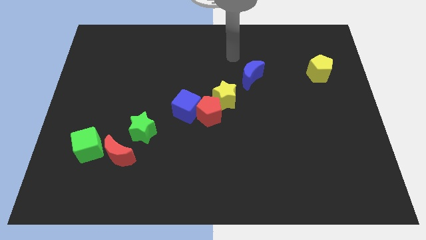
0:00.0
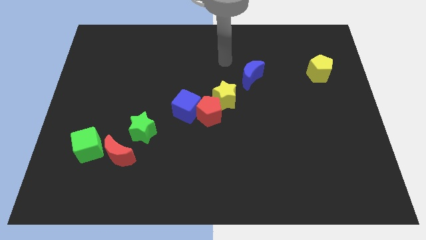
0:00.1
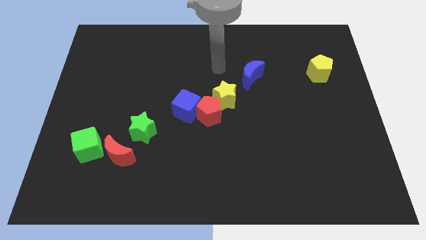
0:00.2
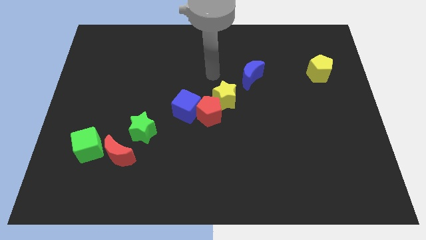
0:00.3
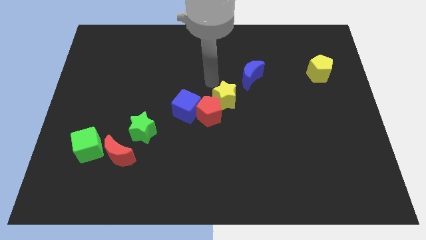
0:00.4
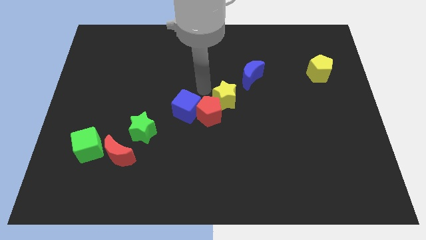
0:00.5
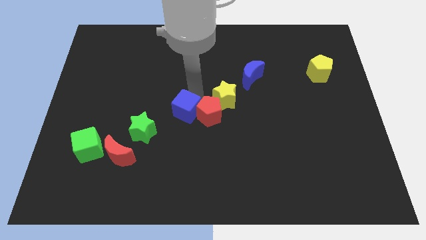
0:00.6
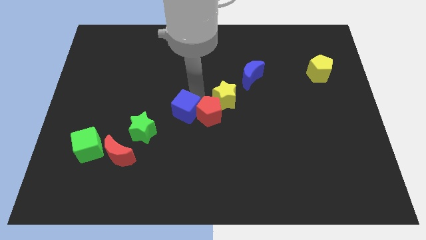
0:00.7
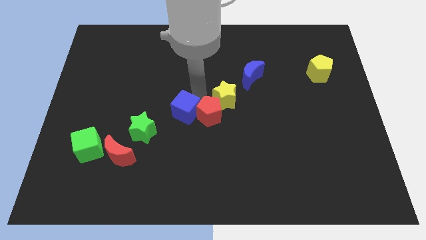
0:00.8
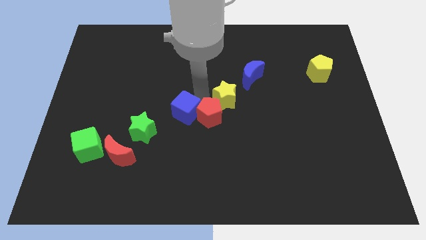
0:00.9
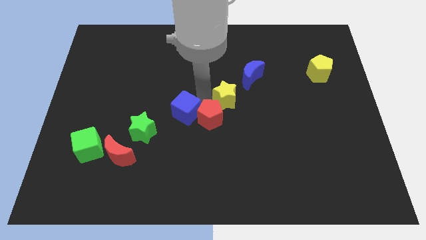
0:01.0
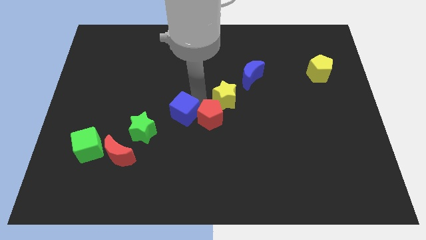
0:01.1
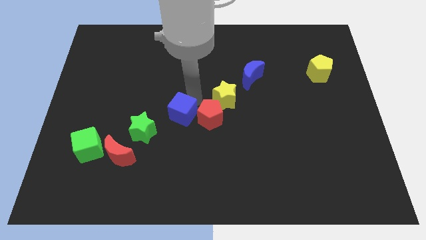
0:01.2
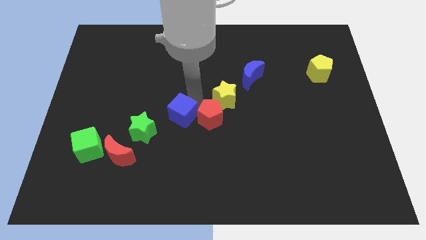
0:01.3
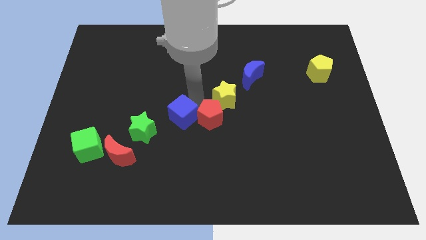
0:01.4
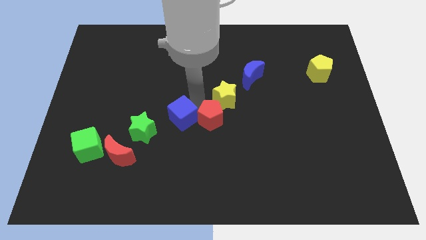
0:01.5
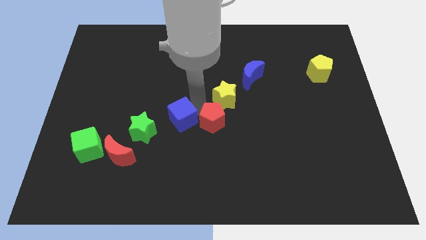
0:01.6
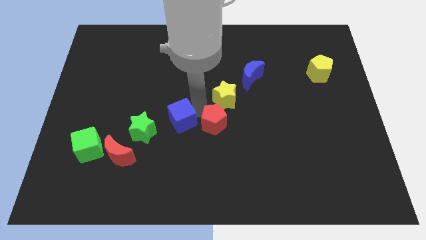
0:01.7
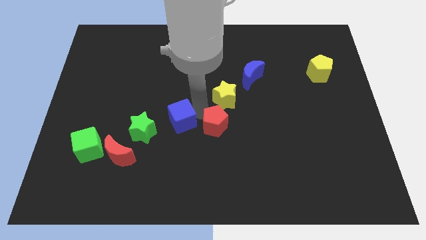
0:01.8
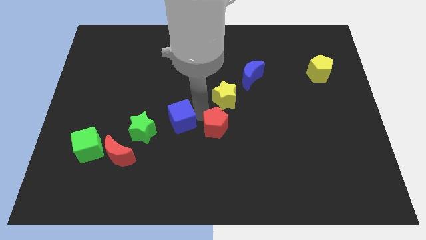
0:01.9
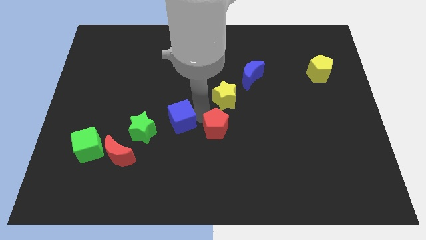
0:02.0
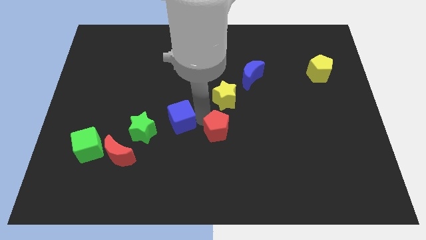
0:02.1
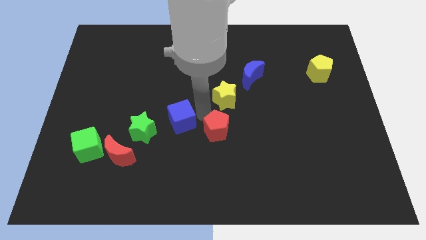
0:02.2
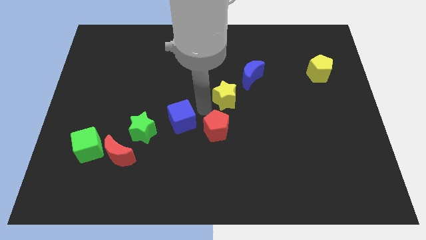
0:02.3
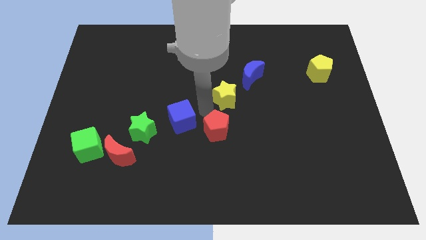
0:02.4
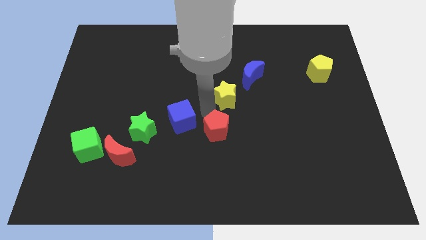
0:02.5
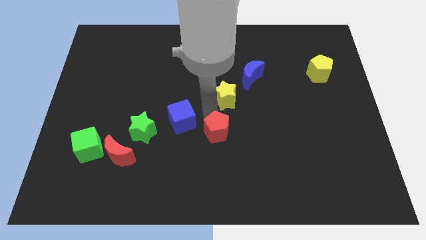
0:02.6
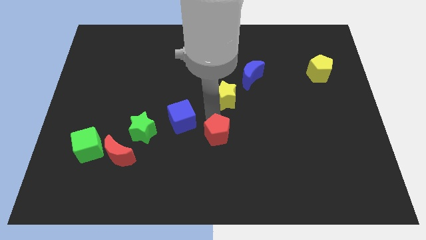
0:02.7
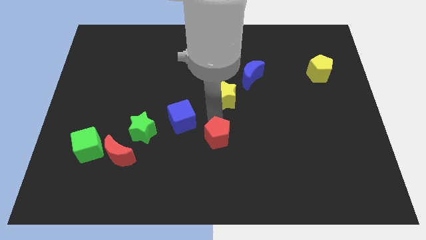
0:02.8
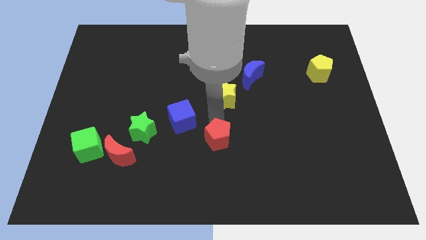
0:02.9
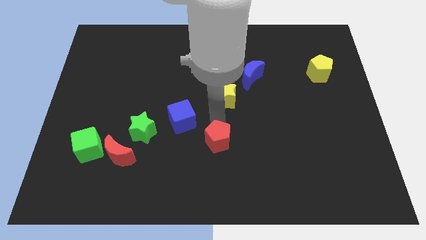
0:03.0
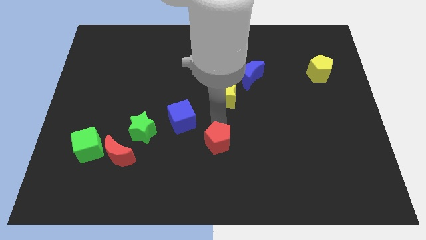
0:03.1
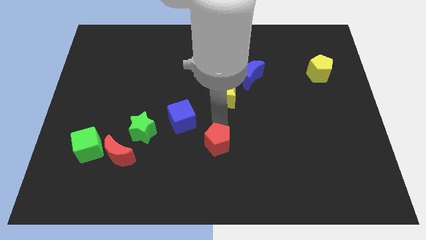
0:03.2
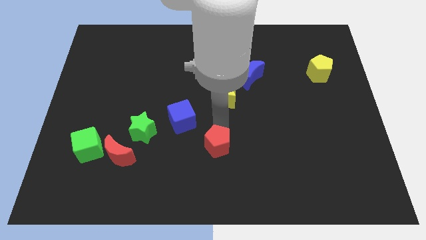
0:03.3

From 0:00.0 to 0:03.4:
separate the red pentagon from the yellow star and blue cube

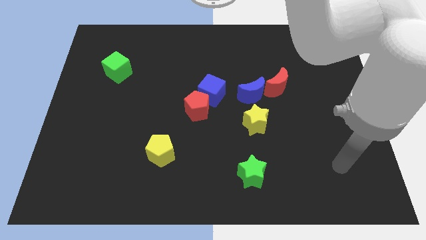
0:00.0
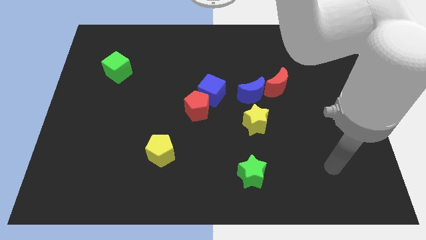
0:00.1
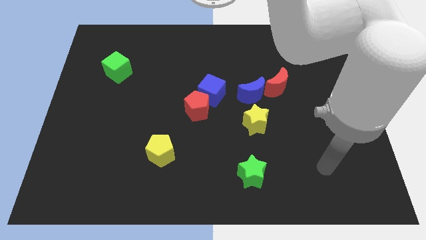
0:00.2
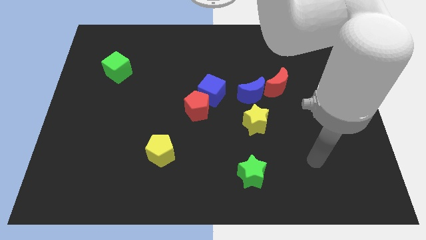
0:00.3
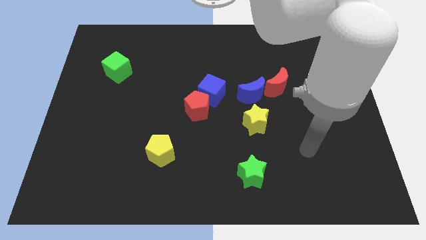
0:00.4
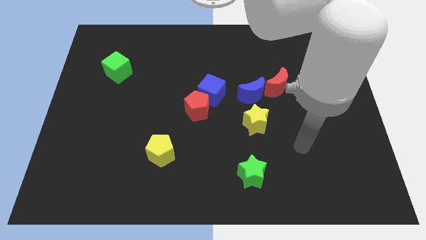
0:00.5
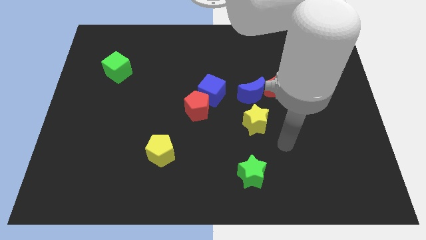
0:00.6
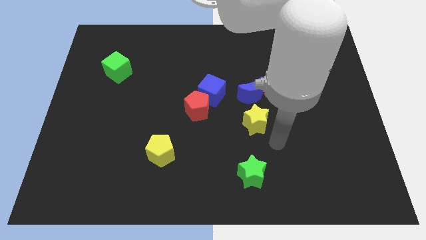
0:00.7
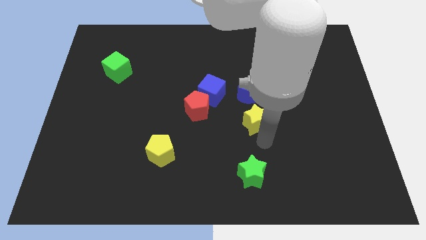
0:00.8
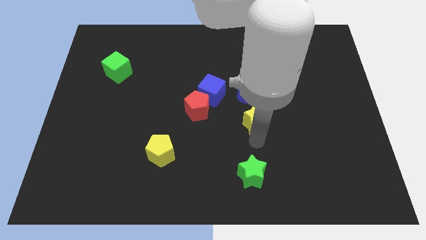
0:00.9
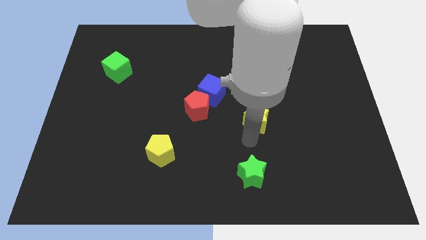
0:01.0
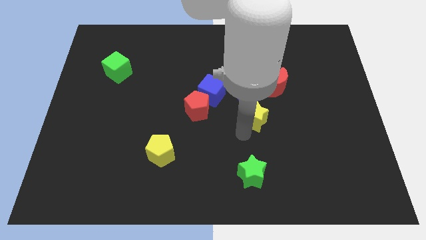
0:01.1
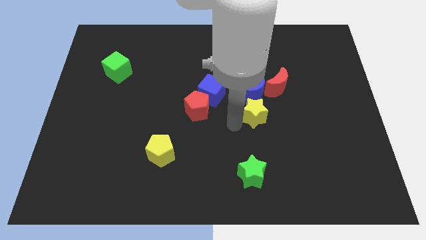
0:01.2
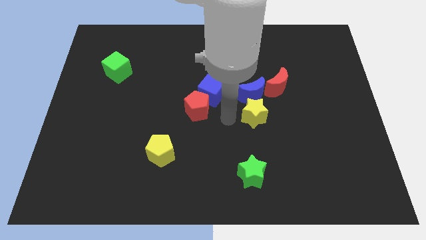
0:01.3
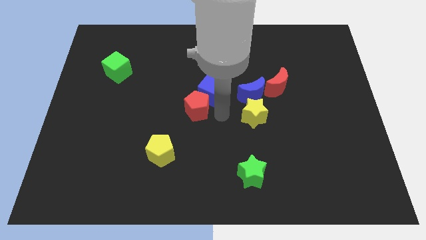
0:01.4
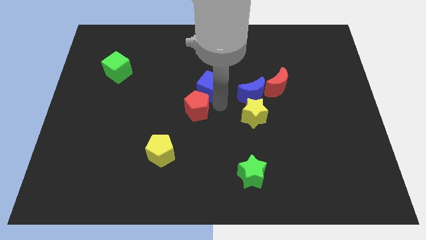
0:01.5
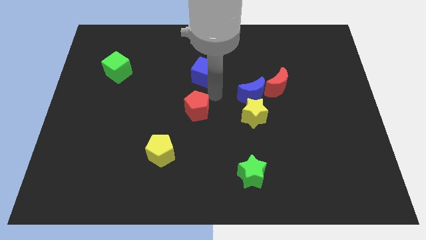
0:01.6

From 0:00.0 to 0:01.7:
pull the red pentagon apart from the blue cube

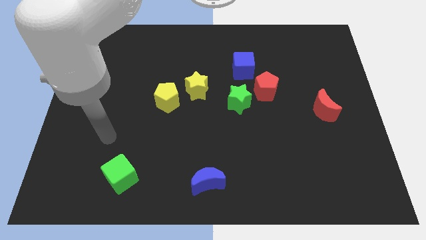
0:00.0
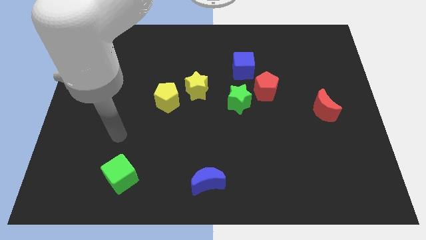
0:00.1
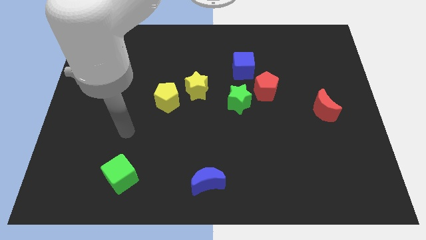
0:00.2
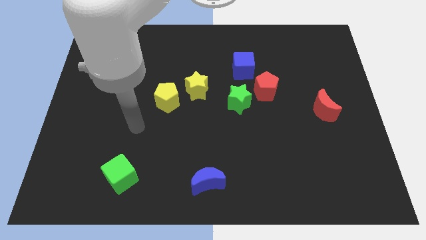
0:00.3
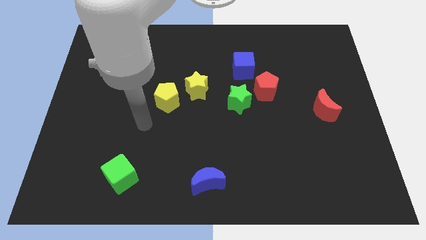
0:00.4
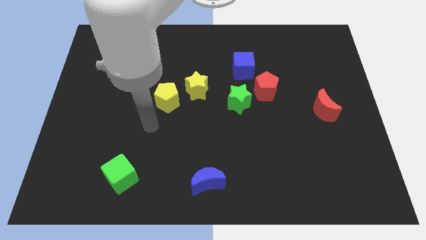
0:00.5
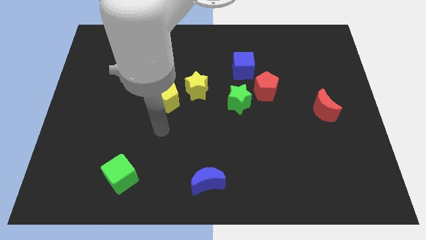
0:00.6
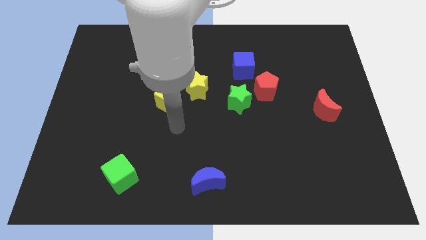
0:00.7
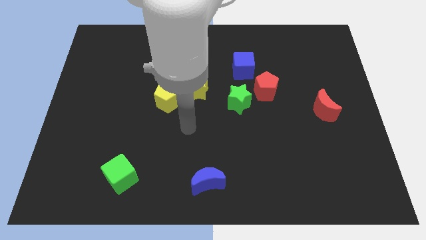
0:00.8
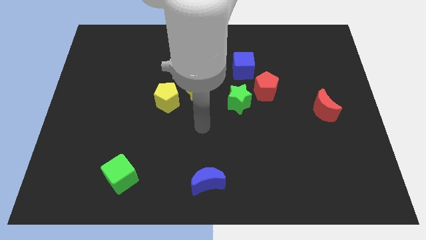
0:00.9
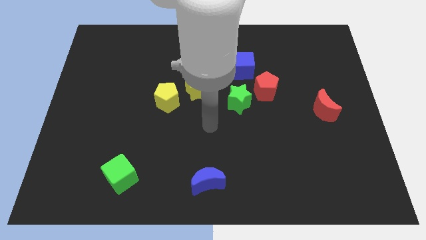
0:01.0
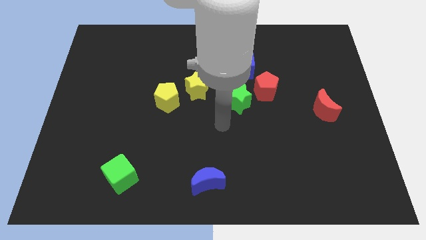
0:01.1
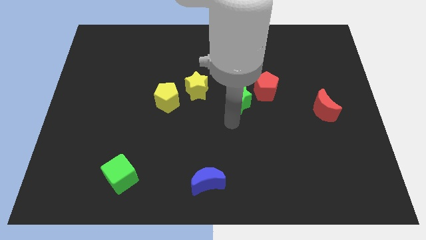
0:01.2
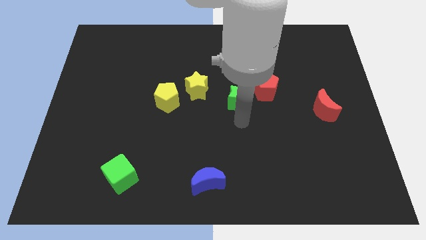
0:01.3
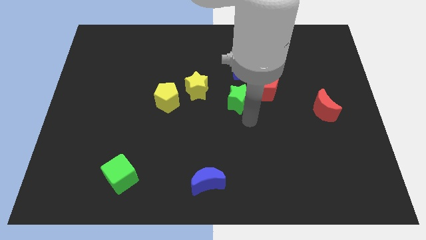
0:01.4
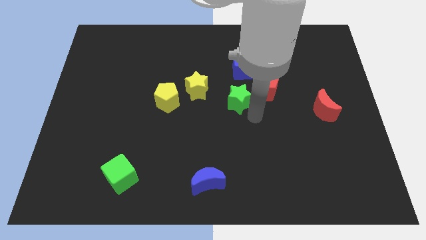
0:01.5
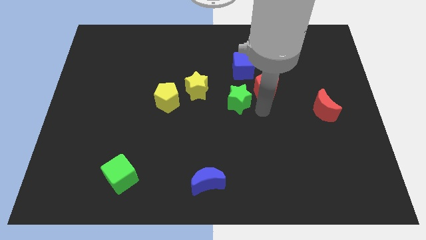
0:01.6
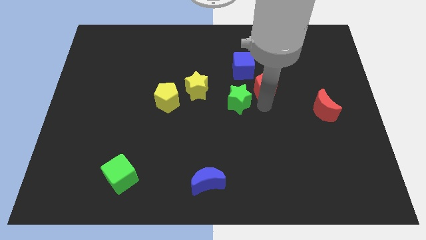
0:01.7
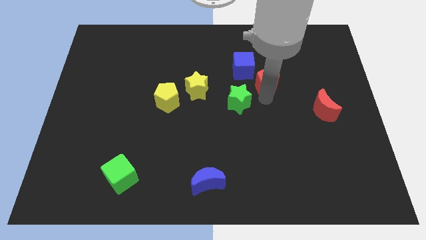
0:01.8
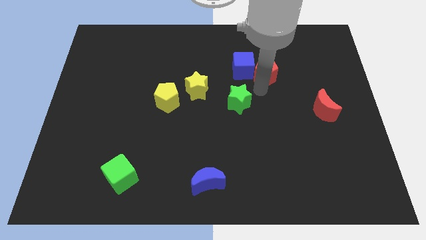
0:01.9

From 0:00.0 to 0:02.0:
pull the green star apart from the red pentagon

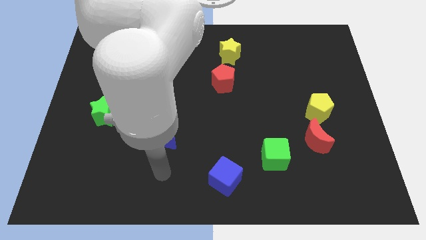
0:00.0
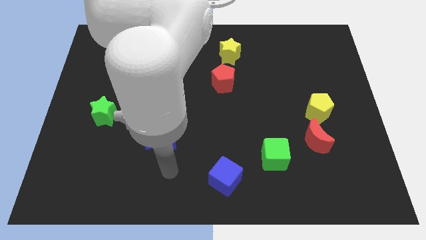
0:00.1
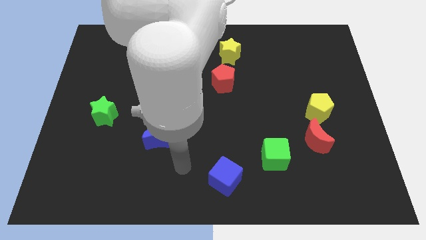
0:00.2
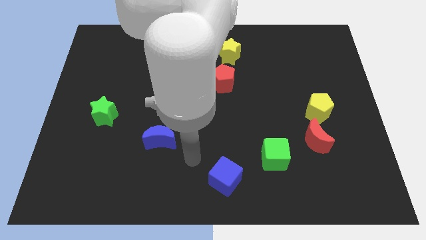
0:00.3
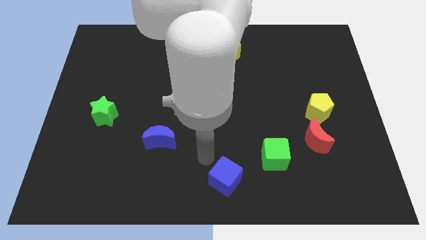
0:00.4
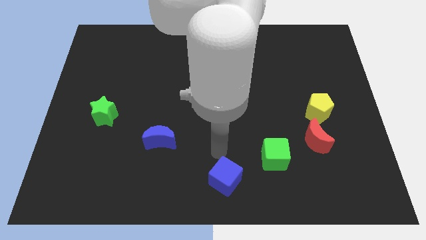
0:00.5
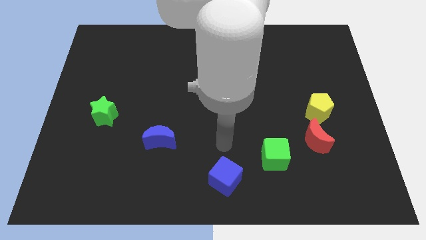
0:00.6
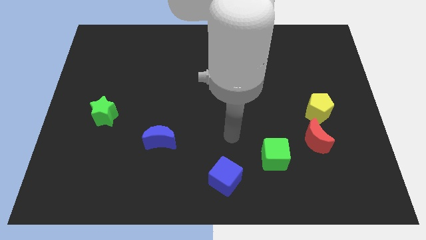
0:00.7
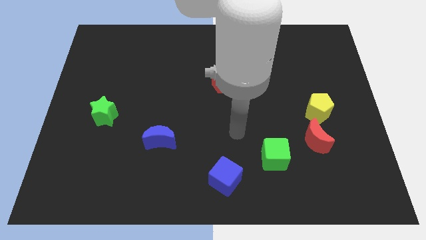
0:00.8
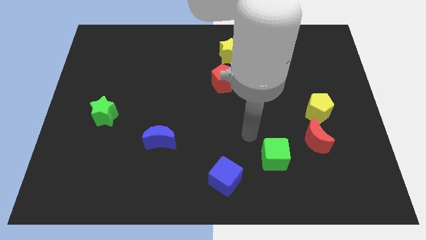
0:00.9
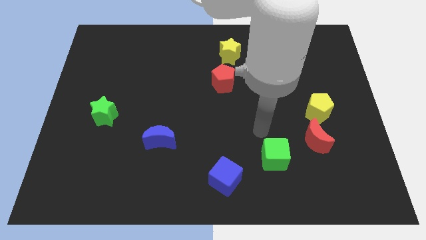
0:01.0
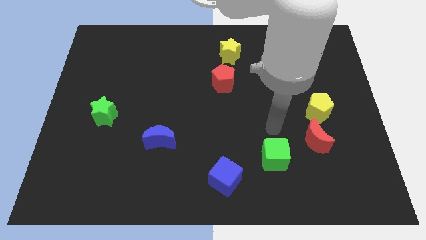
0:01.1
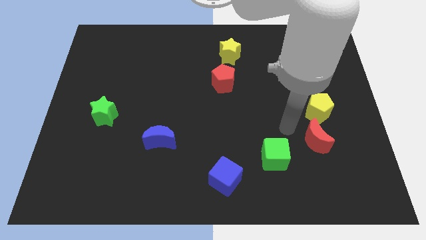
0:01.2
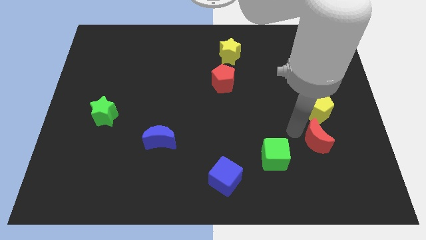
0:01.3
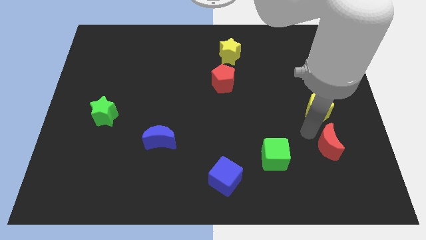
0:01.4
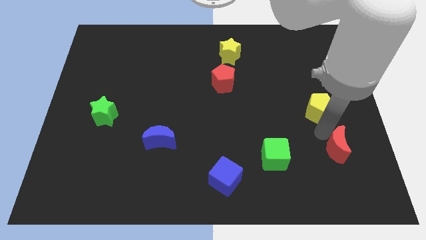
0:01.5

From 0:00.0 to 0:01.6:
move the yellow pentagon away from the red moon

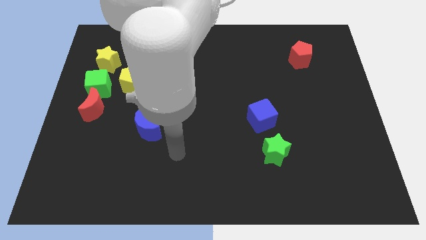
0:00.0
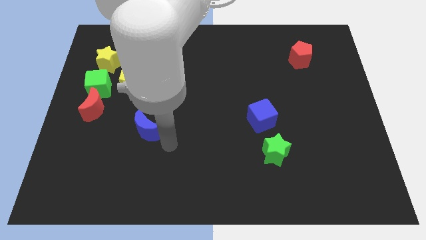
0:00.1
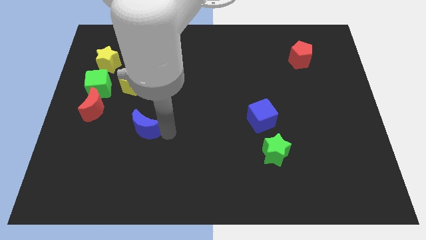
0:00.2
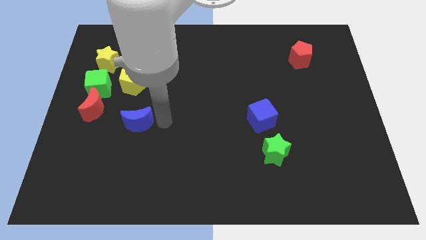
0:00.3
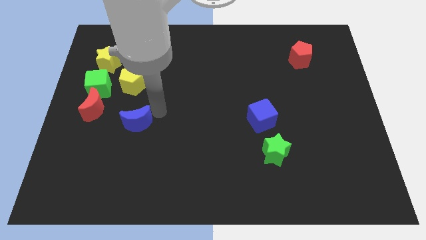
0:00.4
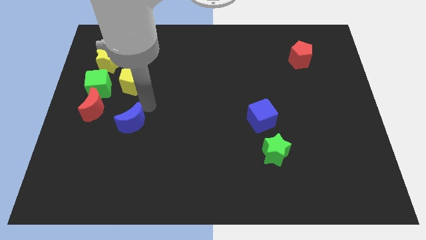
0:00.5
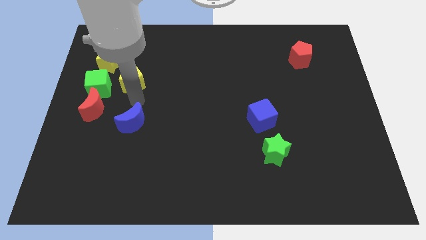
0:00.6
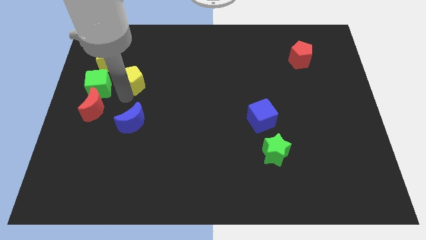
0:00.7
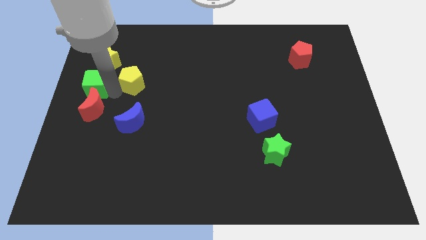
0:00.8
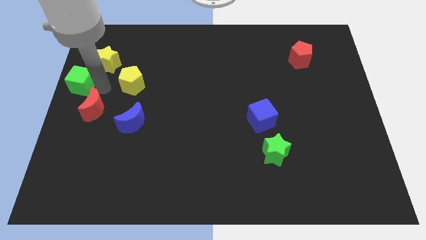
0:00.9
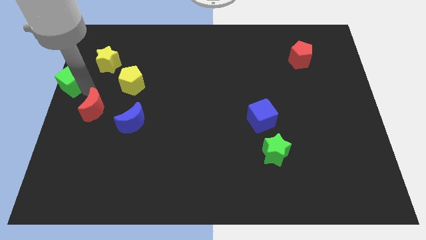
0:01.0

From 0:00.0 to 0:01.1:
separate the red moon from the green cube
